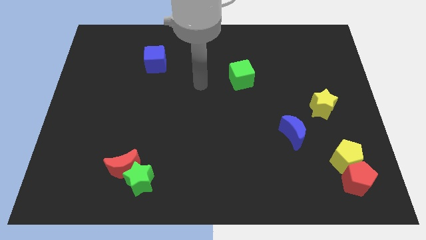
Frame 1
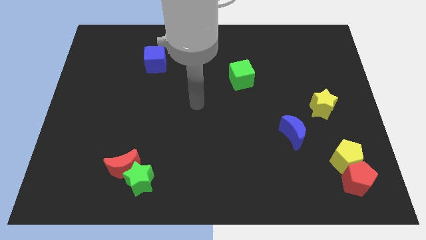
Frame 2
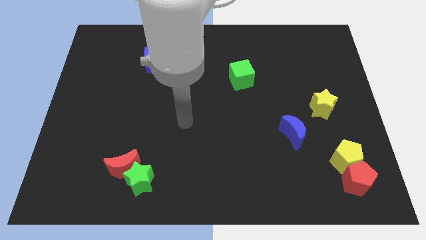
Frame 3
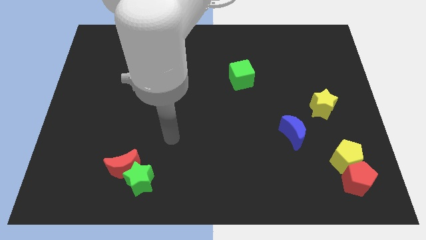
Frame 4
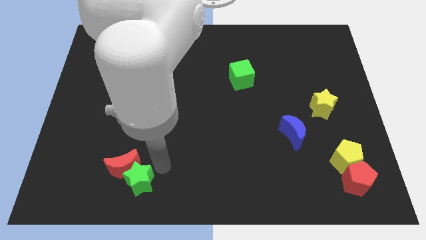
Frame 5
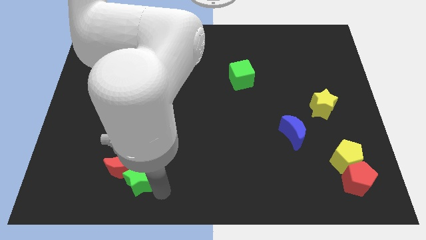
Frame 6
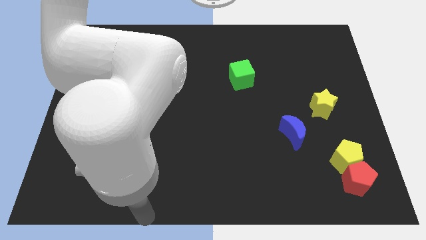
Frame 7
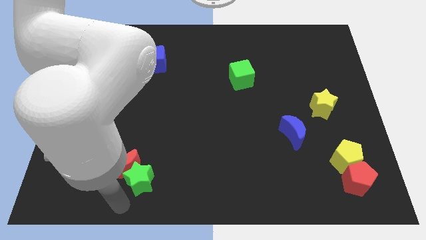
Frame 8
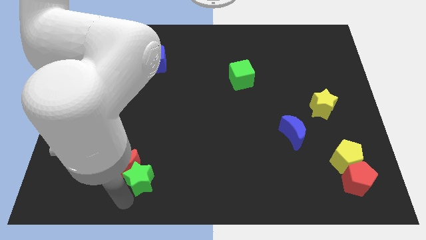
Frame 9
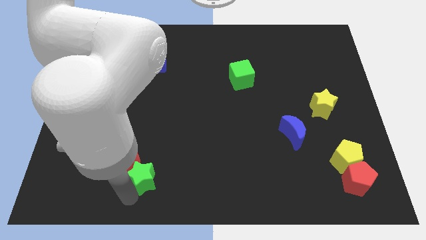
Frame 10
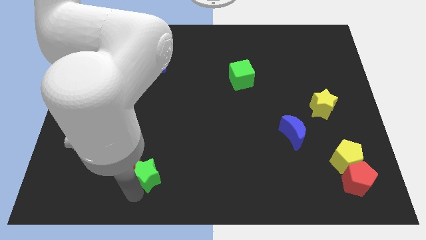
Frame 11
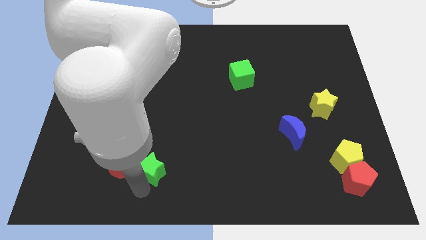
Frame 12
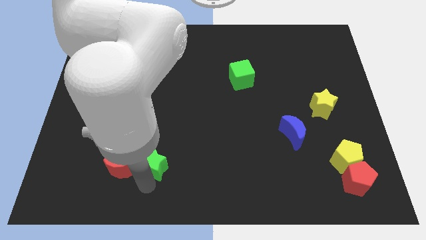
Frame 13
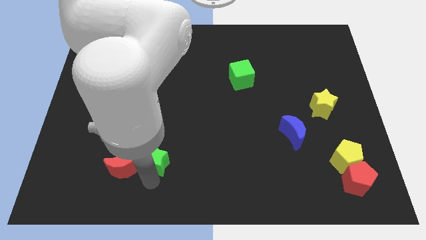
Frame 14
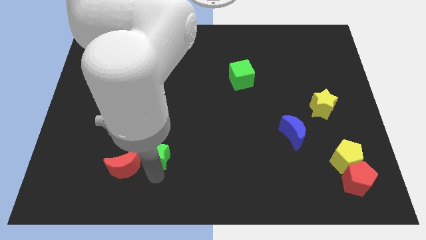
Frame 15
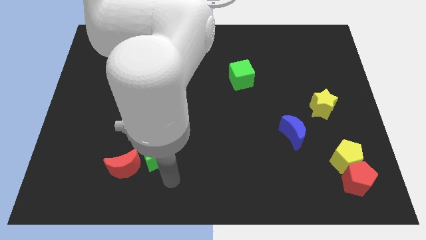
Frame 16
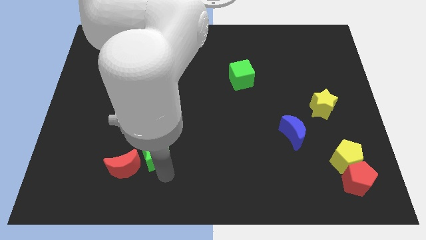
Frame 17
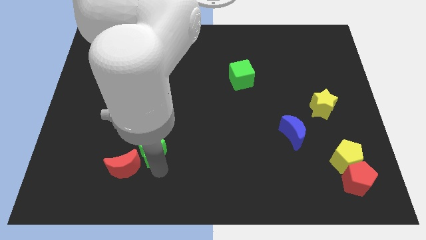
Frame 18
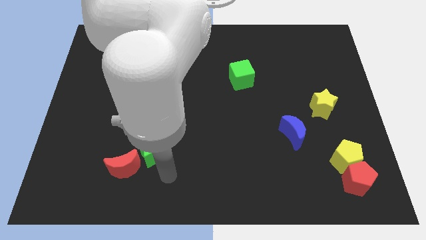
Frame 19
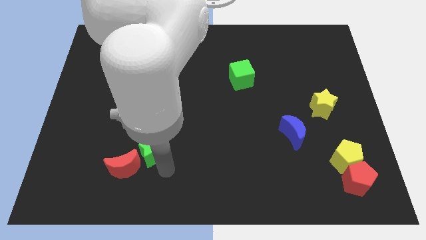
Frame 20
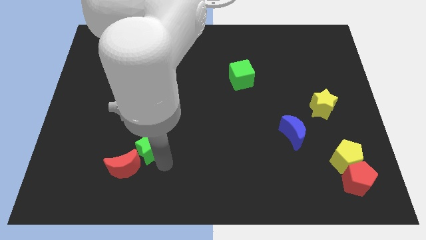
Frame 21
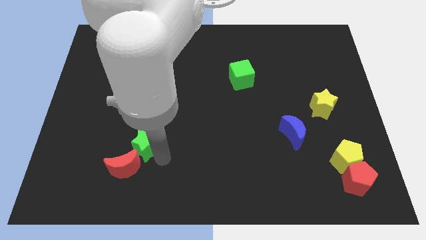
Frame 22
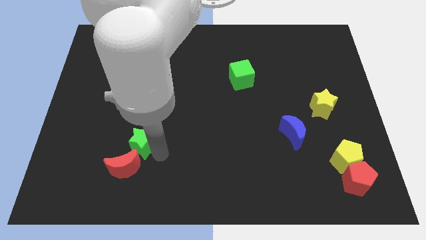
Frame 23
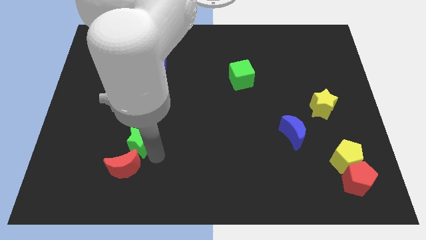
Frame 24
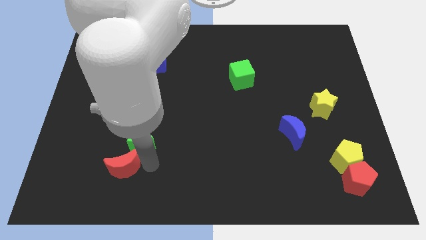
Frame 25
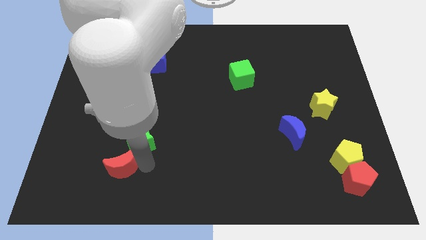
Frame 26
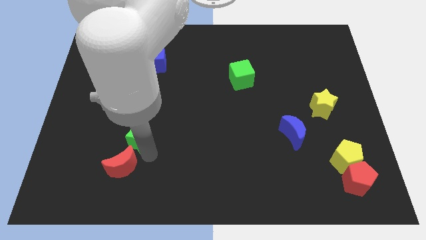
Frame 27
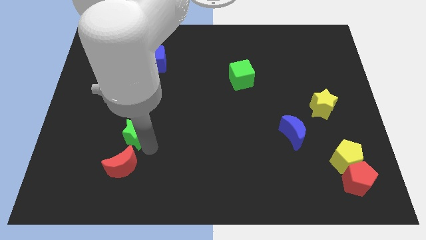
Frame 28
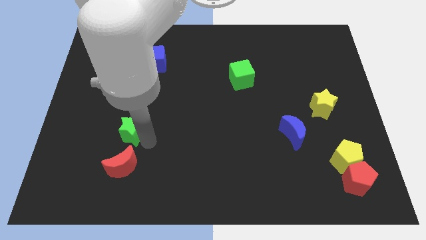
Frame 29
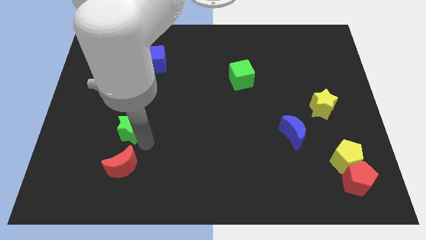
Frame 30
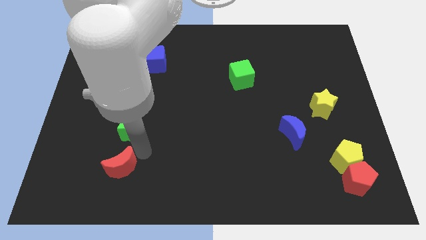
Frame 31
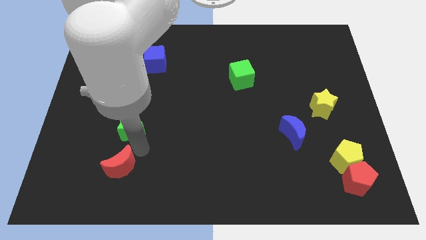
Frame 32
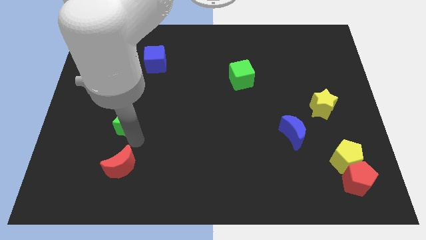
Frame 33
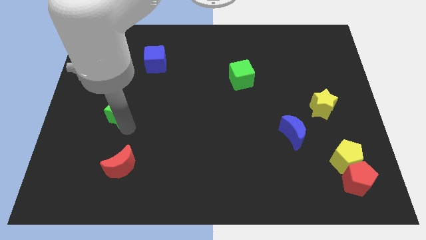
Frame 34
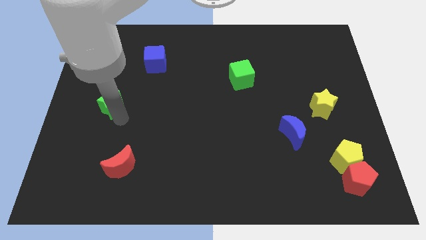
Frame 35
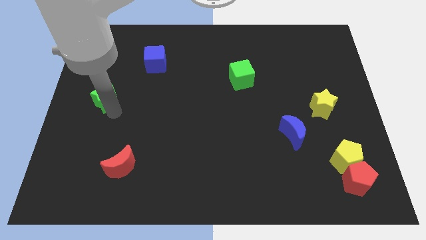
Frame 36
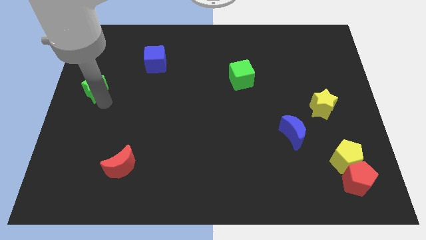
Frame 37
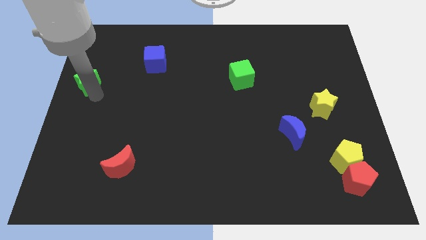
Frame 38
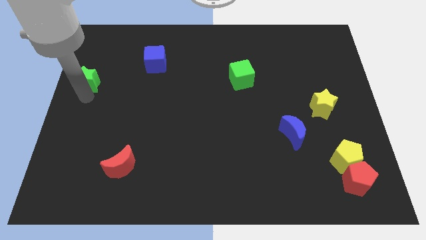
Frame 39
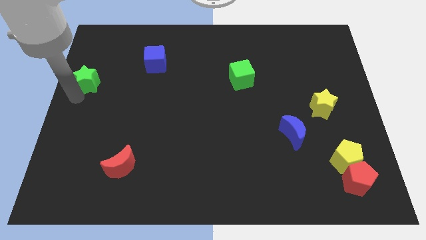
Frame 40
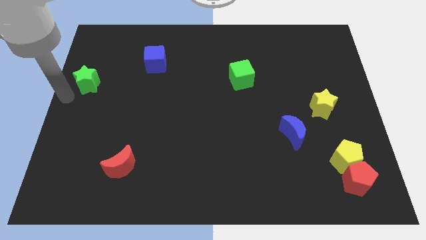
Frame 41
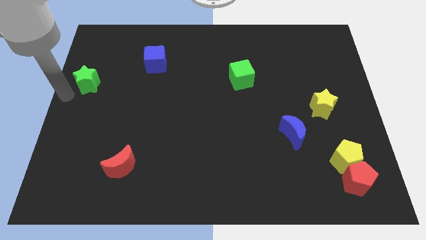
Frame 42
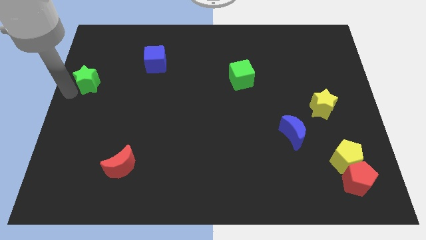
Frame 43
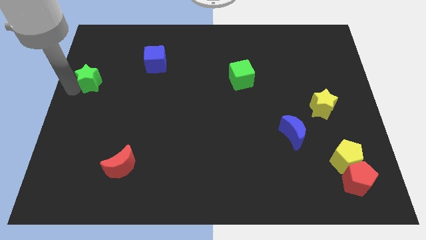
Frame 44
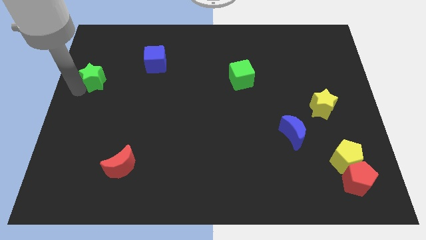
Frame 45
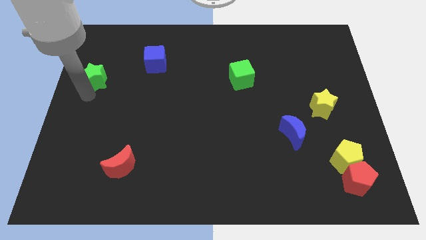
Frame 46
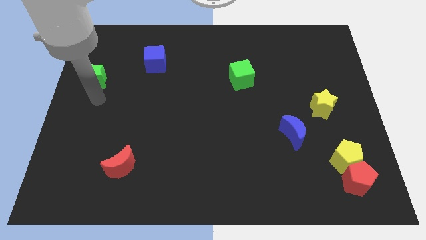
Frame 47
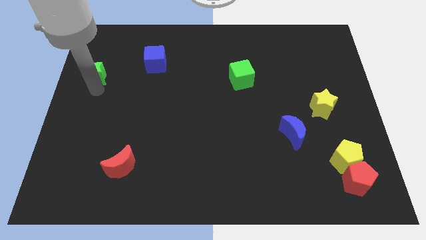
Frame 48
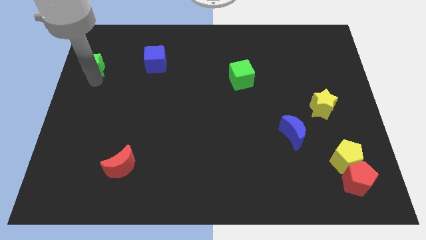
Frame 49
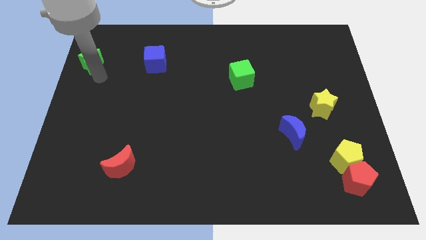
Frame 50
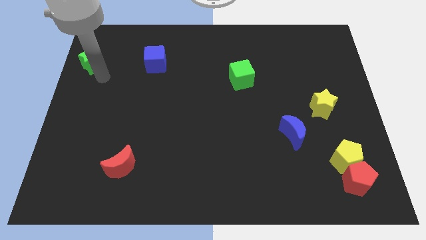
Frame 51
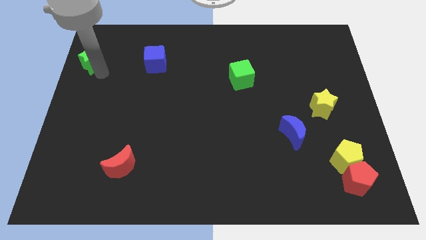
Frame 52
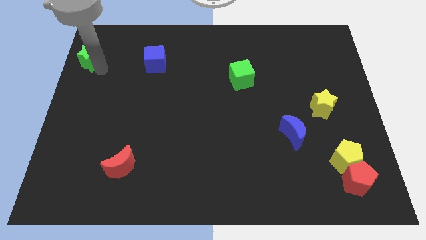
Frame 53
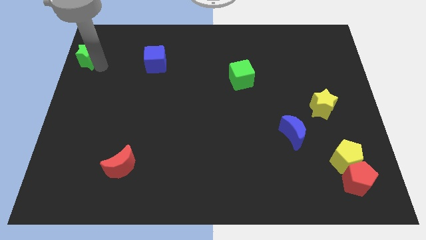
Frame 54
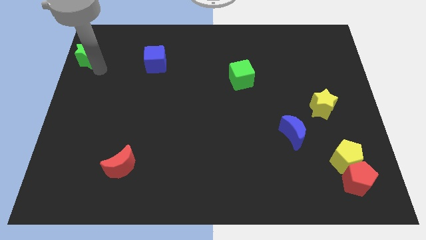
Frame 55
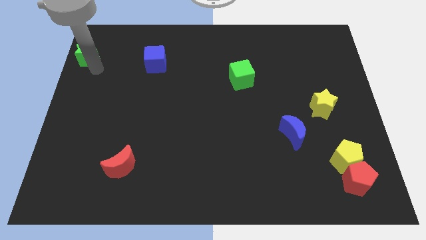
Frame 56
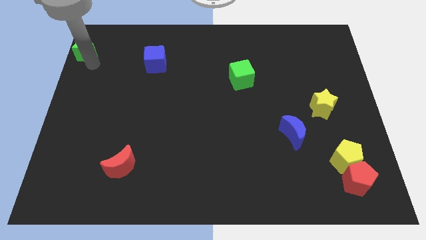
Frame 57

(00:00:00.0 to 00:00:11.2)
put the green star to the upper left corner

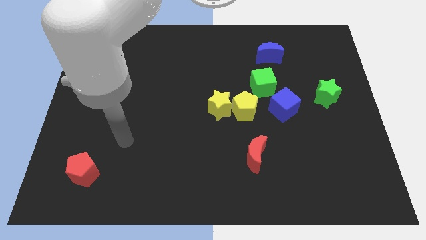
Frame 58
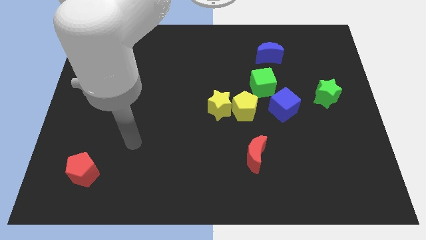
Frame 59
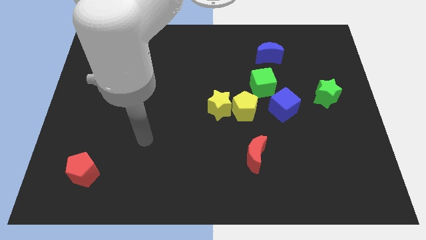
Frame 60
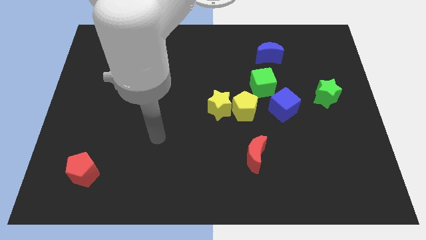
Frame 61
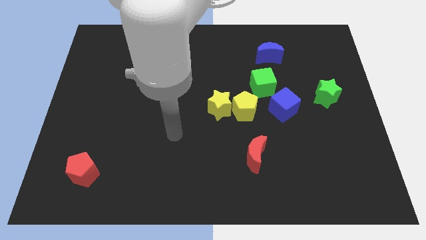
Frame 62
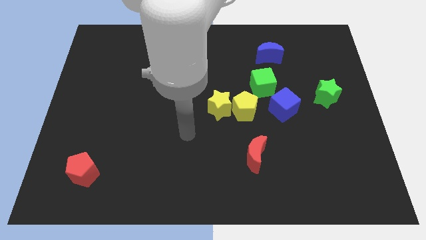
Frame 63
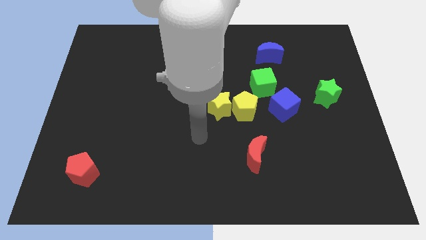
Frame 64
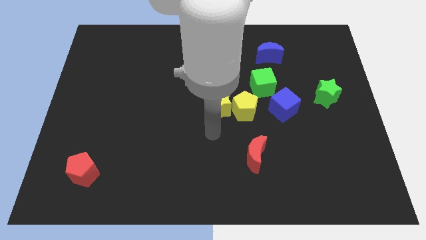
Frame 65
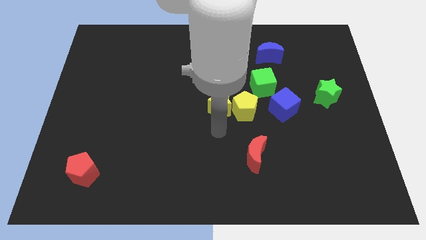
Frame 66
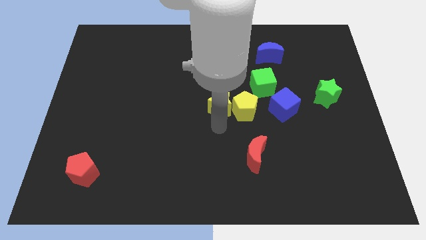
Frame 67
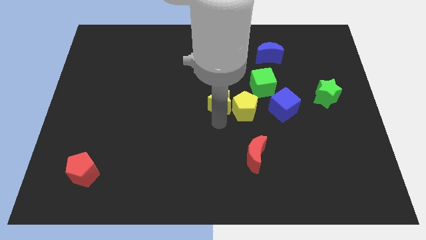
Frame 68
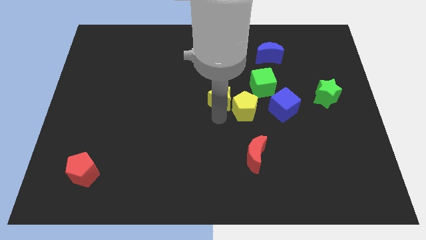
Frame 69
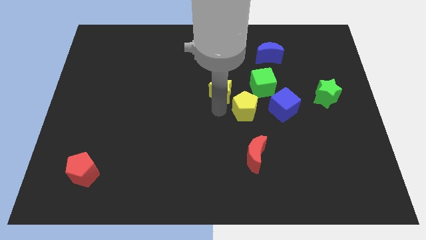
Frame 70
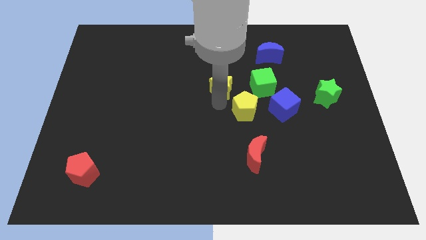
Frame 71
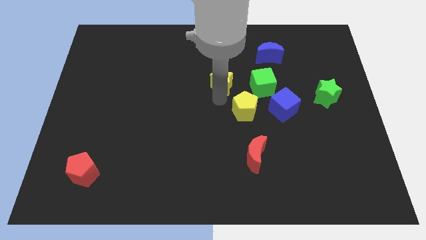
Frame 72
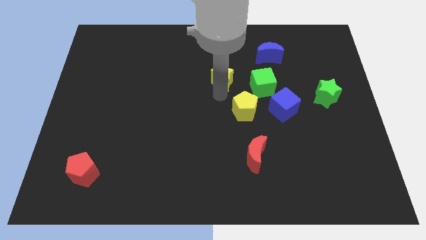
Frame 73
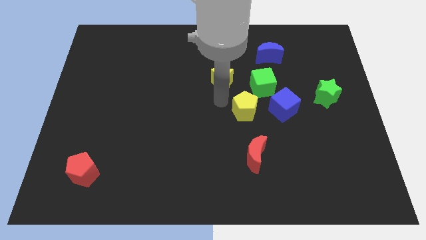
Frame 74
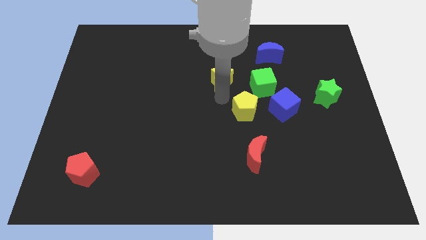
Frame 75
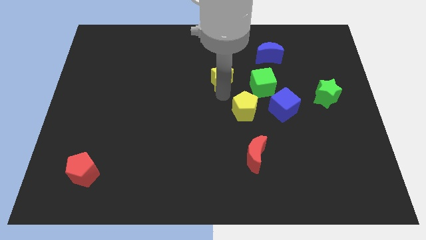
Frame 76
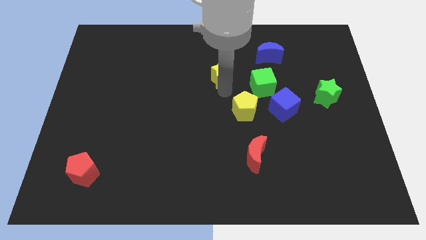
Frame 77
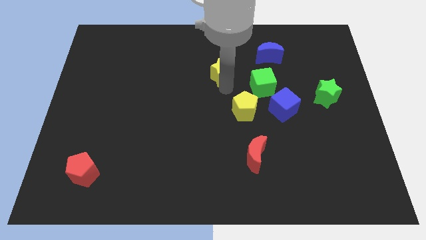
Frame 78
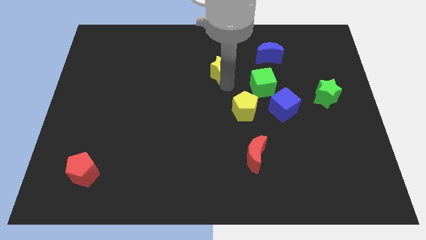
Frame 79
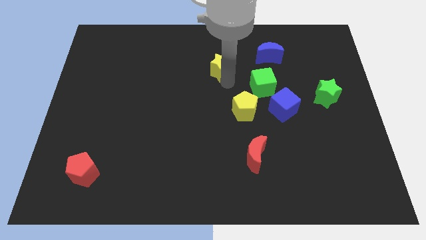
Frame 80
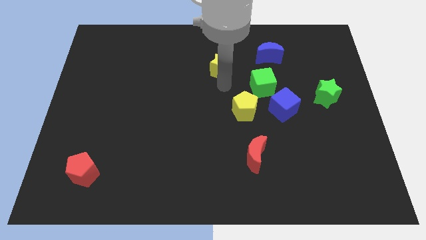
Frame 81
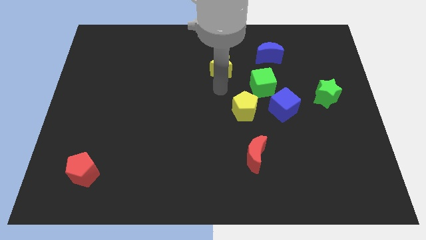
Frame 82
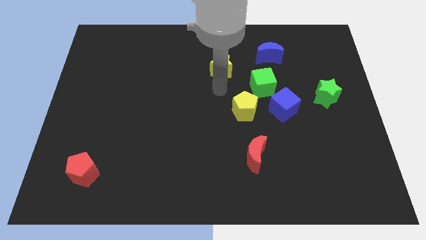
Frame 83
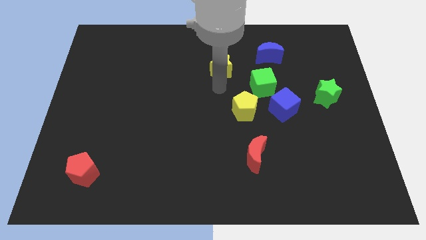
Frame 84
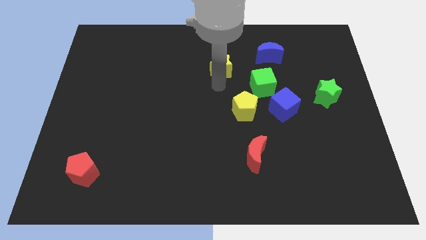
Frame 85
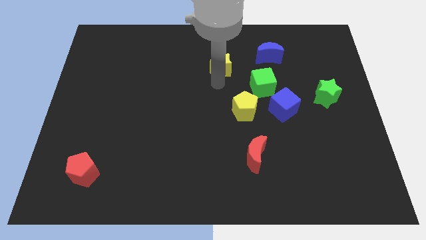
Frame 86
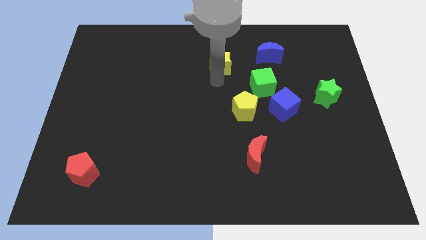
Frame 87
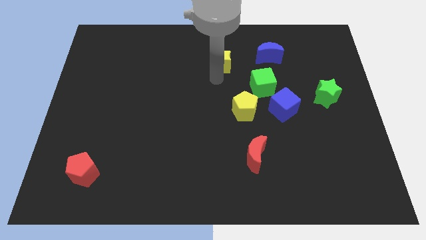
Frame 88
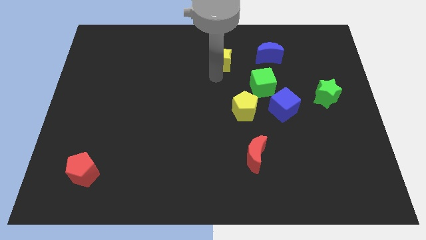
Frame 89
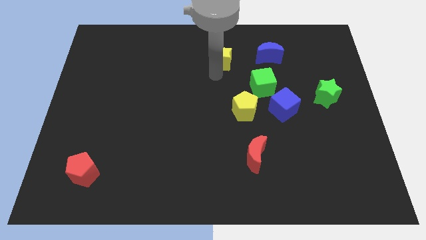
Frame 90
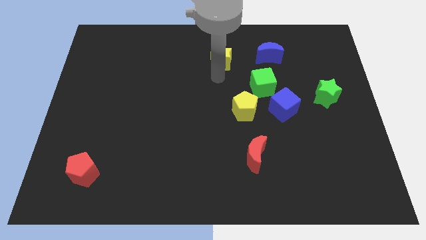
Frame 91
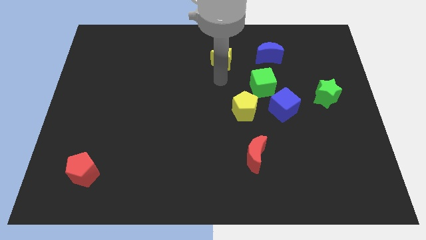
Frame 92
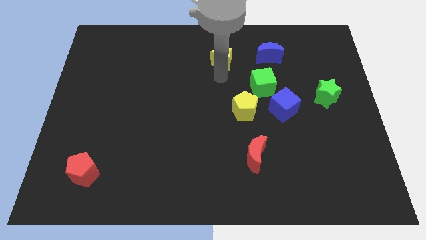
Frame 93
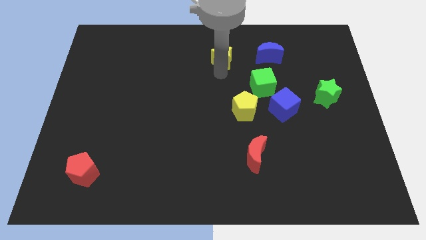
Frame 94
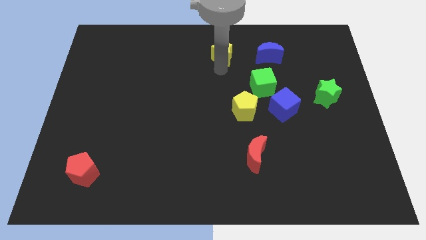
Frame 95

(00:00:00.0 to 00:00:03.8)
move the yellow star to the top side
